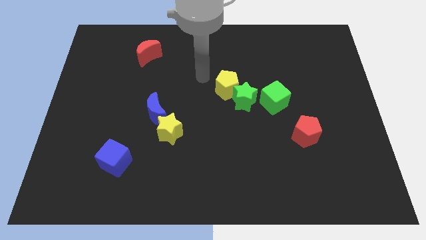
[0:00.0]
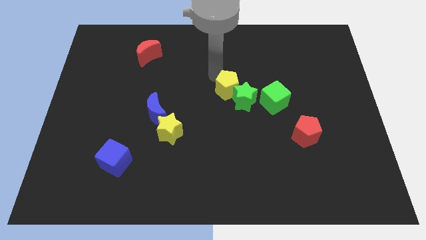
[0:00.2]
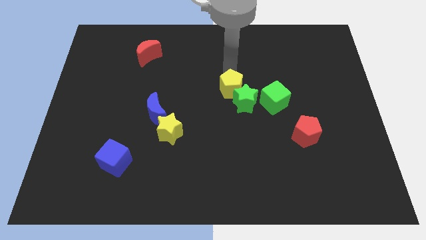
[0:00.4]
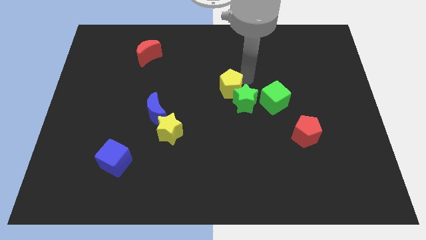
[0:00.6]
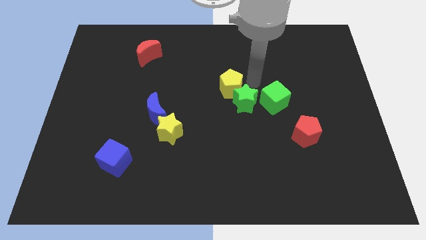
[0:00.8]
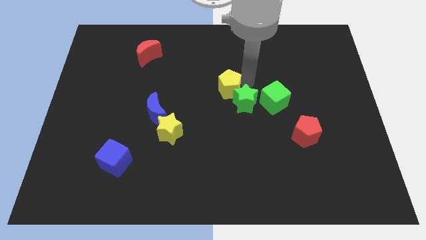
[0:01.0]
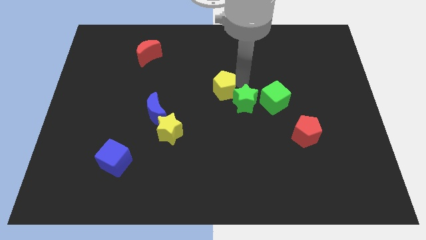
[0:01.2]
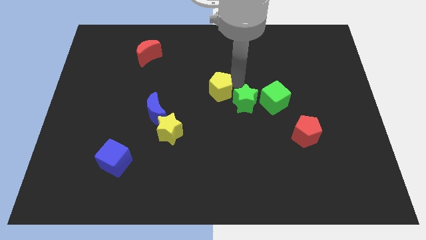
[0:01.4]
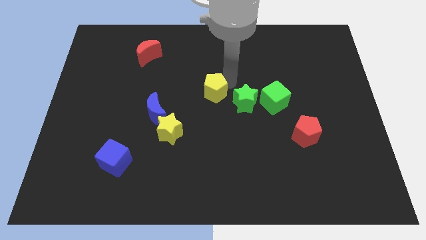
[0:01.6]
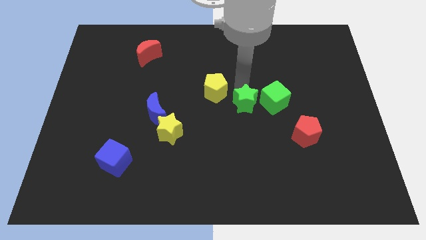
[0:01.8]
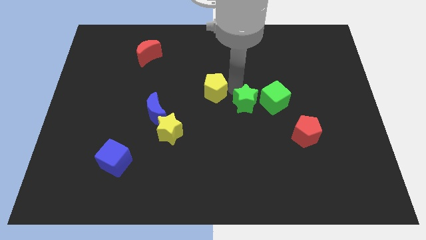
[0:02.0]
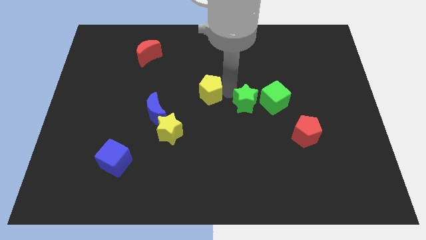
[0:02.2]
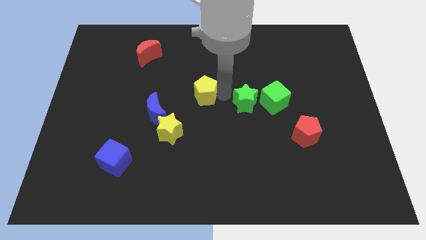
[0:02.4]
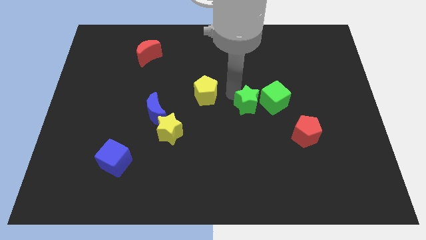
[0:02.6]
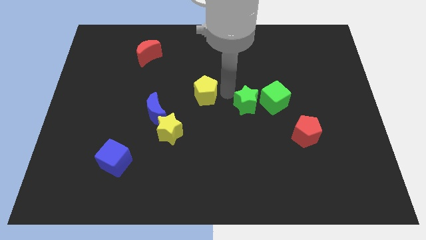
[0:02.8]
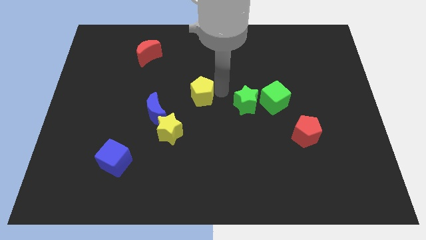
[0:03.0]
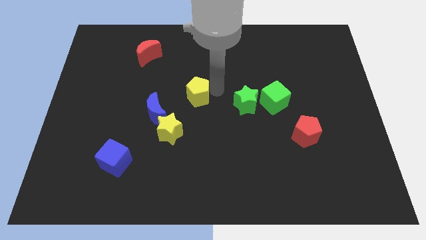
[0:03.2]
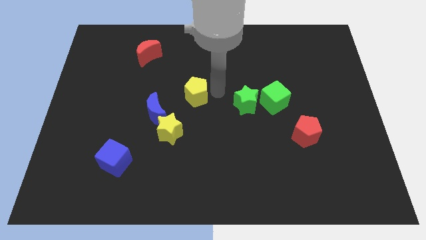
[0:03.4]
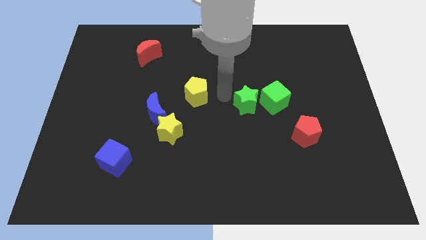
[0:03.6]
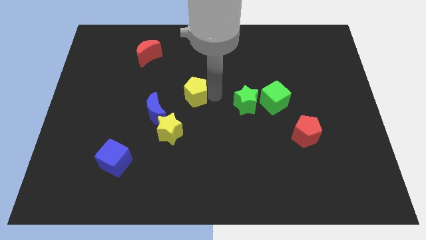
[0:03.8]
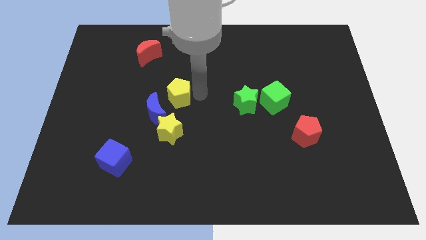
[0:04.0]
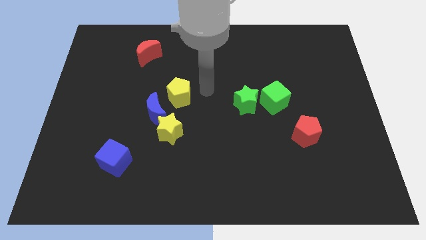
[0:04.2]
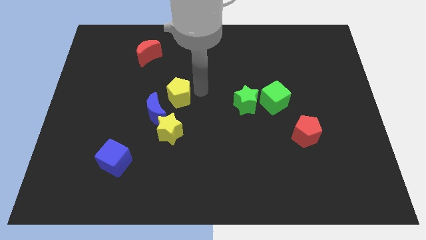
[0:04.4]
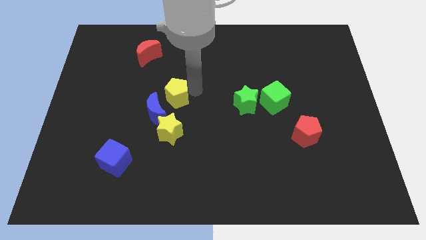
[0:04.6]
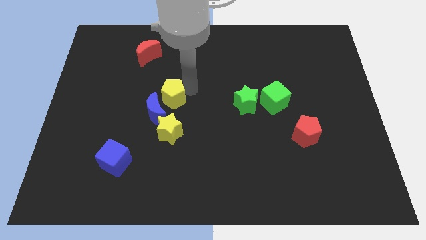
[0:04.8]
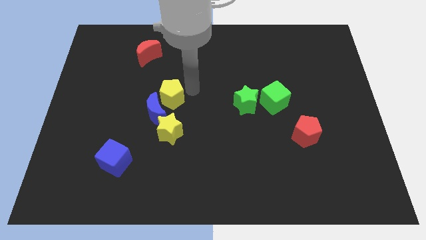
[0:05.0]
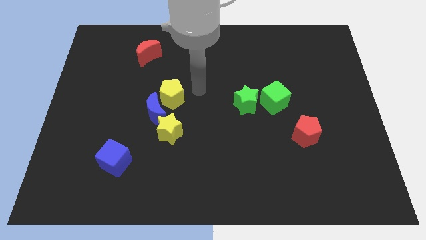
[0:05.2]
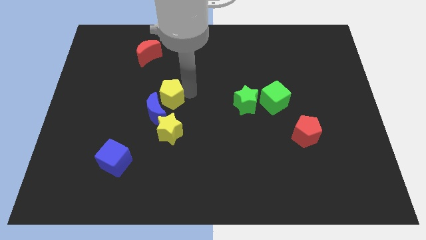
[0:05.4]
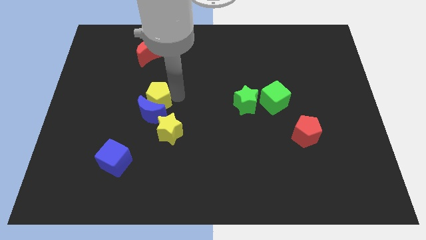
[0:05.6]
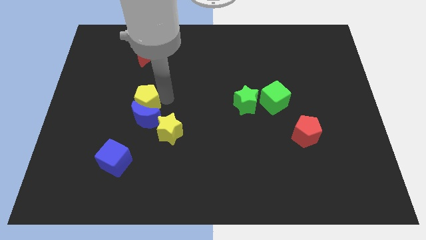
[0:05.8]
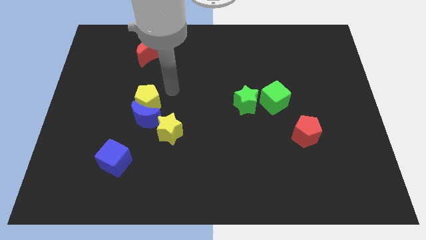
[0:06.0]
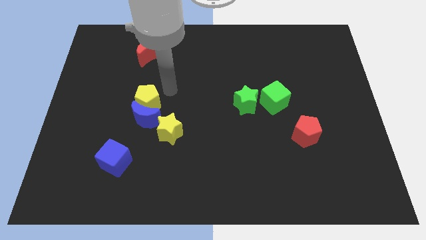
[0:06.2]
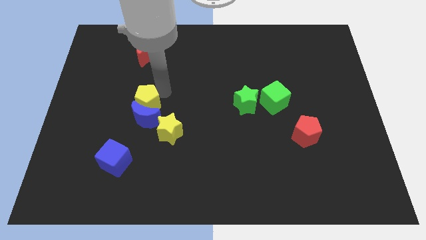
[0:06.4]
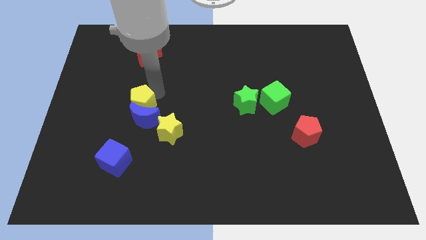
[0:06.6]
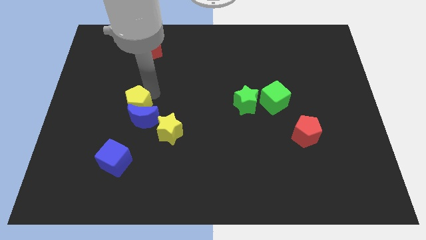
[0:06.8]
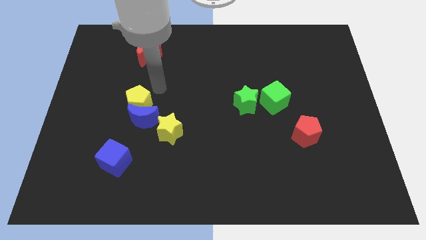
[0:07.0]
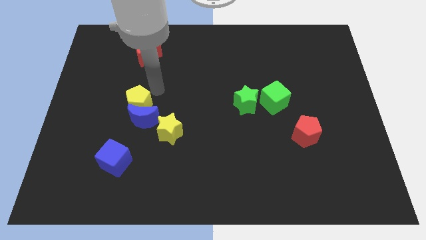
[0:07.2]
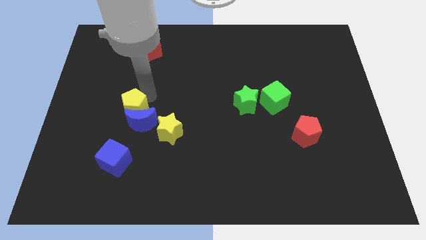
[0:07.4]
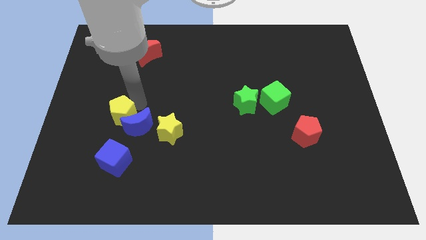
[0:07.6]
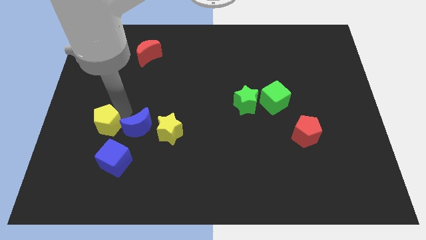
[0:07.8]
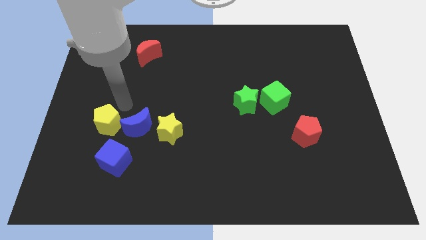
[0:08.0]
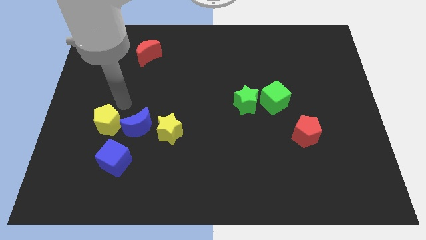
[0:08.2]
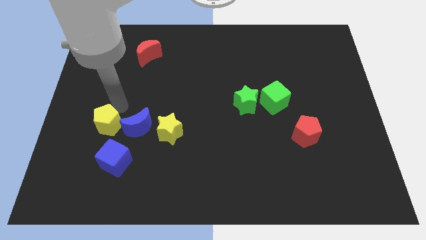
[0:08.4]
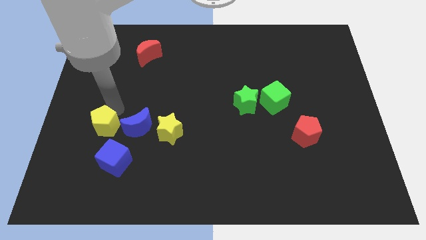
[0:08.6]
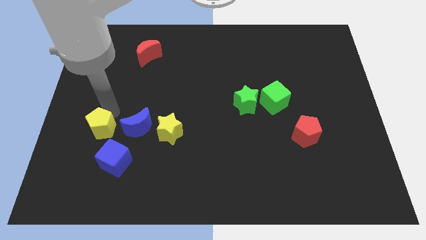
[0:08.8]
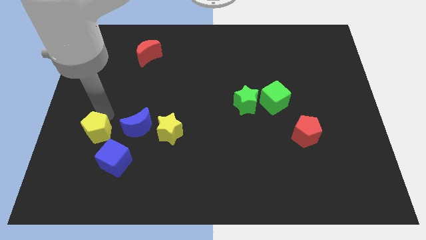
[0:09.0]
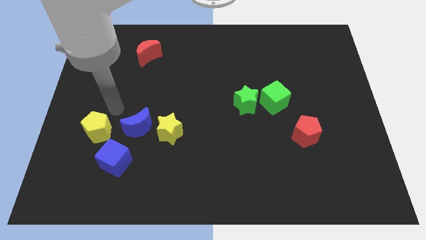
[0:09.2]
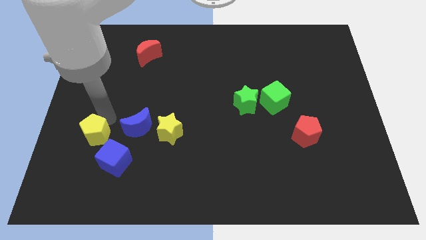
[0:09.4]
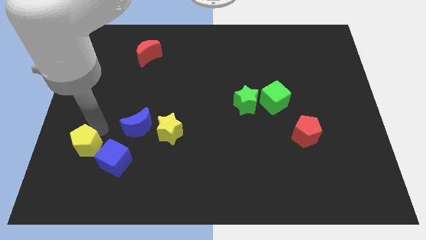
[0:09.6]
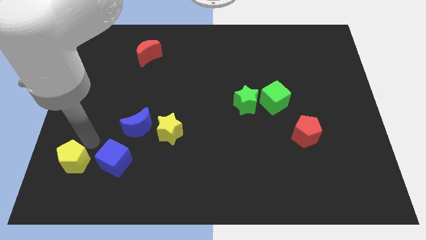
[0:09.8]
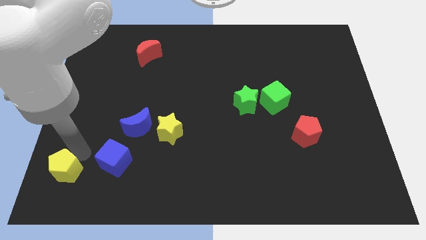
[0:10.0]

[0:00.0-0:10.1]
push the yellow pentagon to the lower left corner

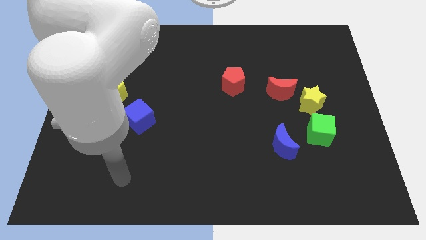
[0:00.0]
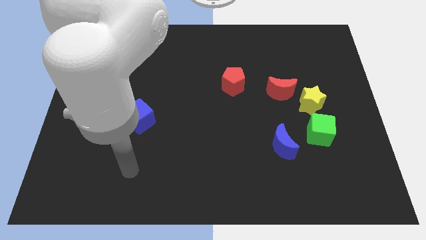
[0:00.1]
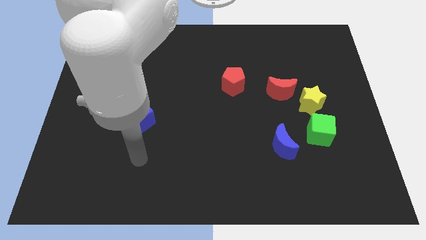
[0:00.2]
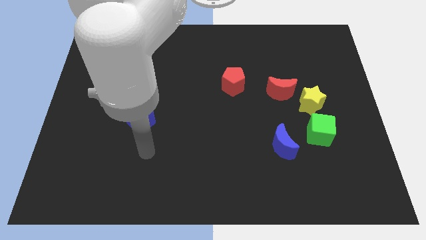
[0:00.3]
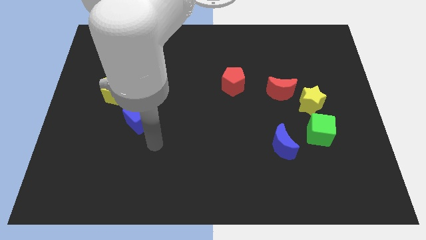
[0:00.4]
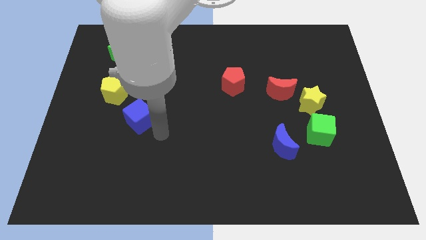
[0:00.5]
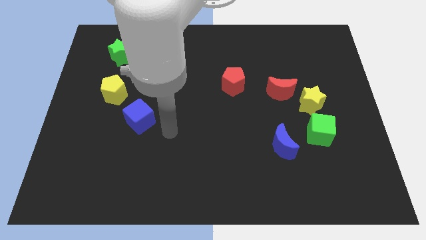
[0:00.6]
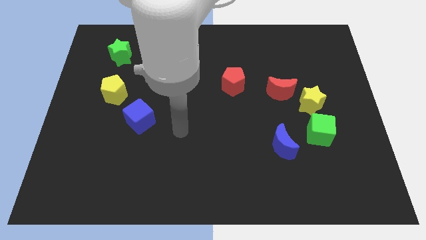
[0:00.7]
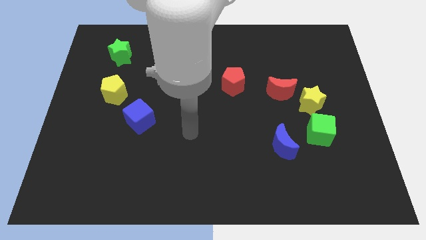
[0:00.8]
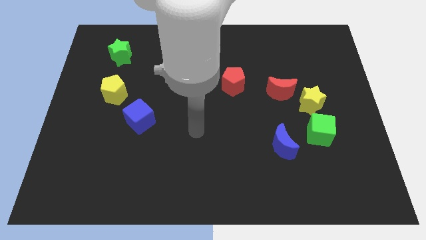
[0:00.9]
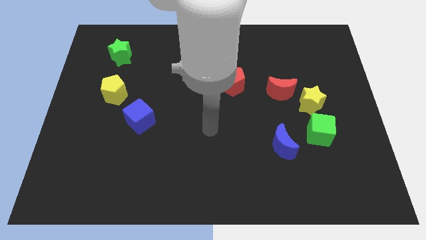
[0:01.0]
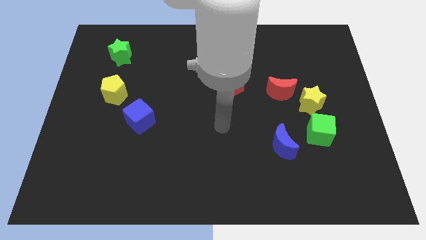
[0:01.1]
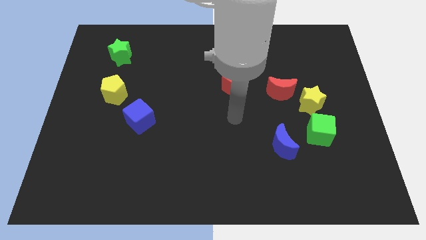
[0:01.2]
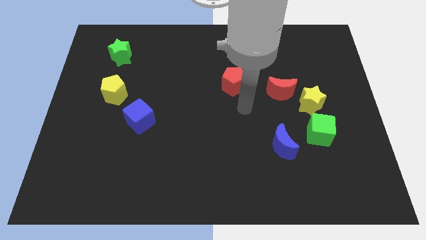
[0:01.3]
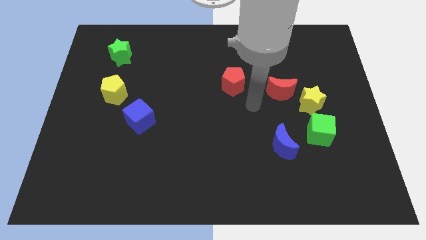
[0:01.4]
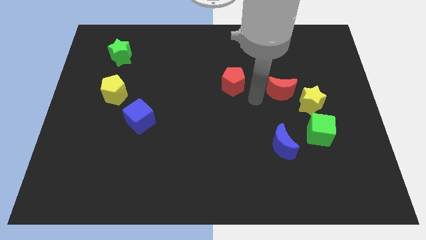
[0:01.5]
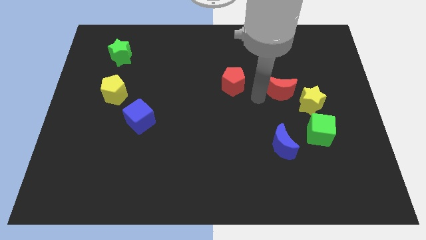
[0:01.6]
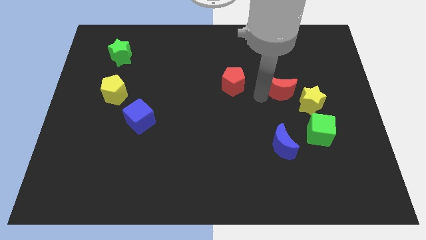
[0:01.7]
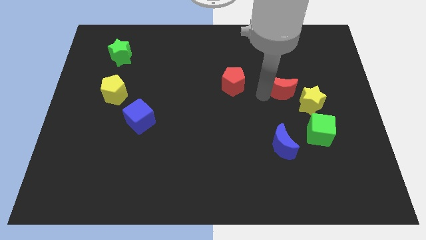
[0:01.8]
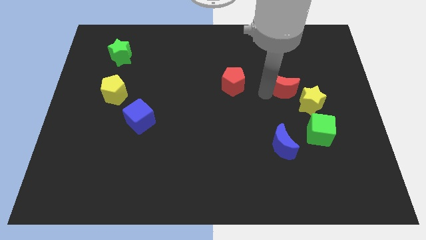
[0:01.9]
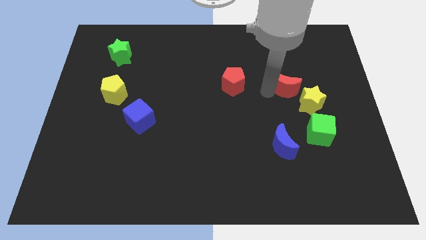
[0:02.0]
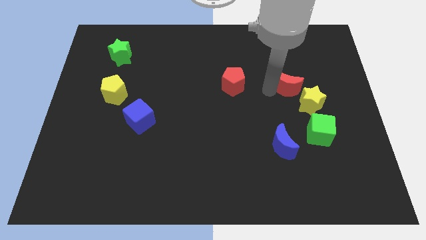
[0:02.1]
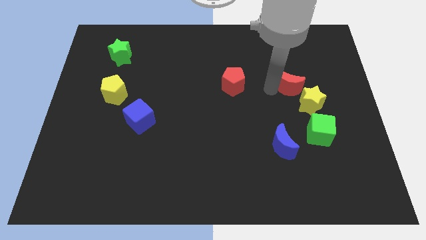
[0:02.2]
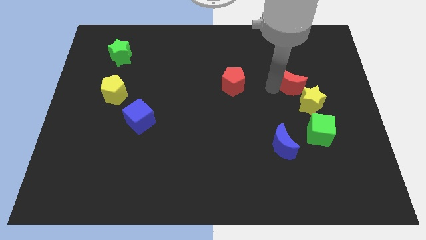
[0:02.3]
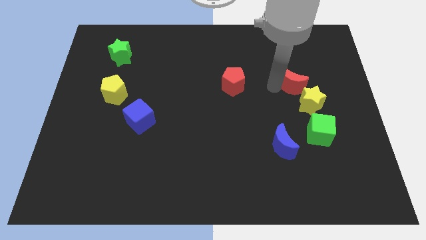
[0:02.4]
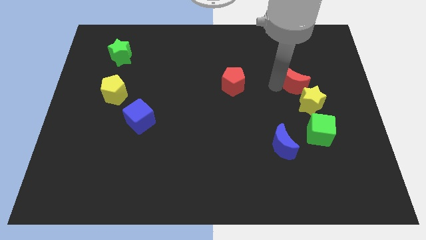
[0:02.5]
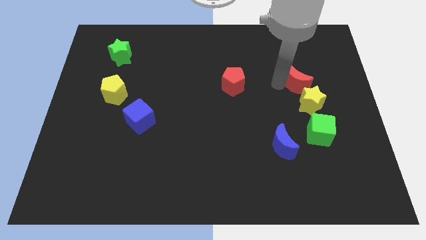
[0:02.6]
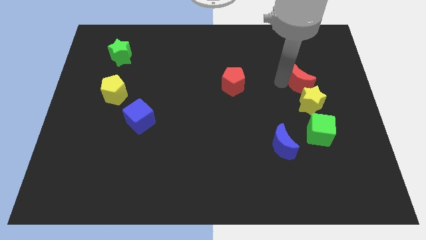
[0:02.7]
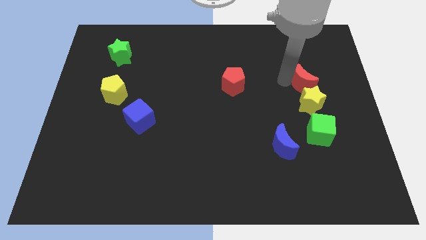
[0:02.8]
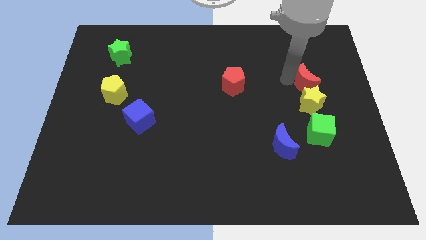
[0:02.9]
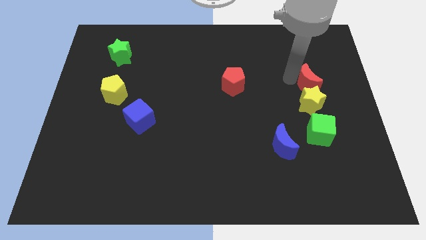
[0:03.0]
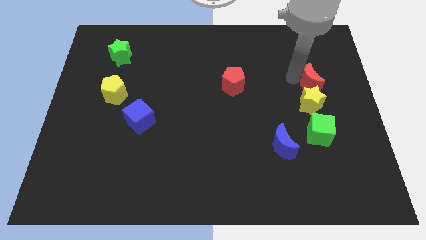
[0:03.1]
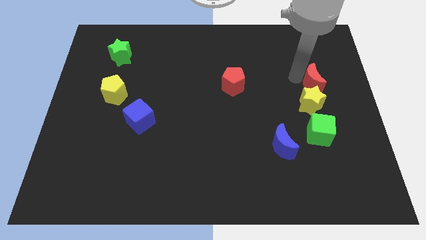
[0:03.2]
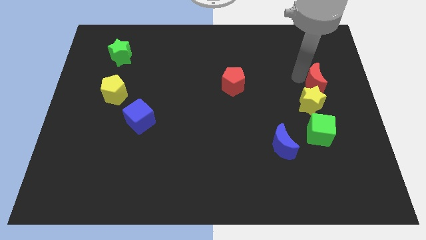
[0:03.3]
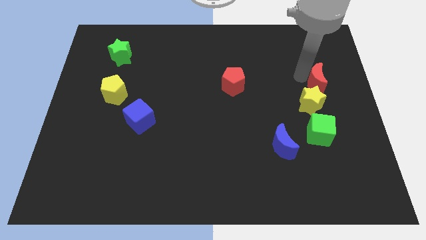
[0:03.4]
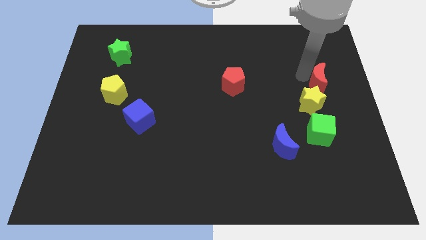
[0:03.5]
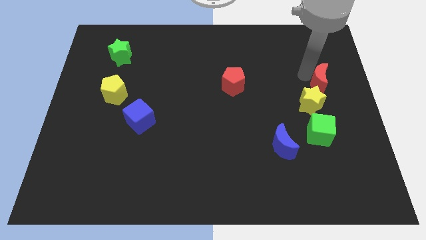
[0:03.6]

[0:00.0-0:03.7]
push the red moon to the right side
